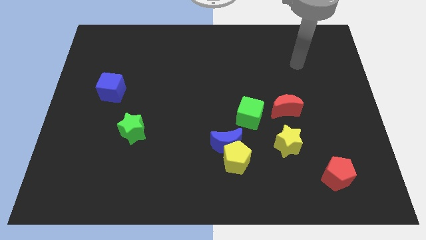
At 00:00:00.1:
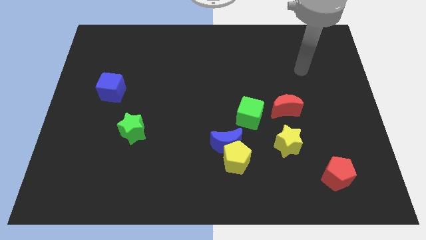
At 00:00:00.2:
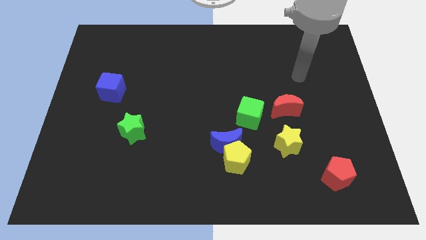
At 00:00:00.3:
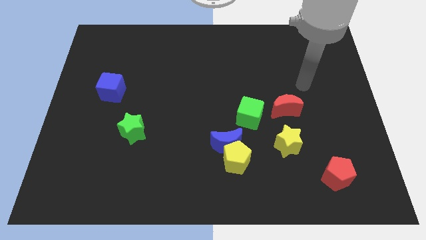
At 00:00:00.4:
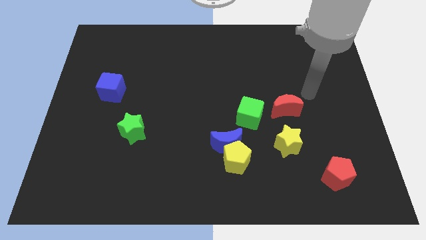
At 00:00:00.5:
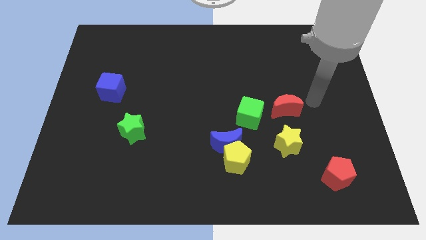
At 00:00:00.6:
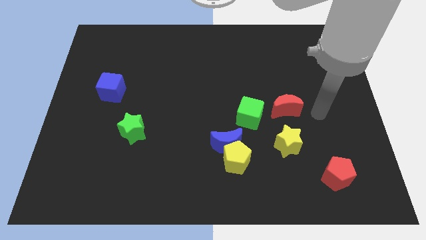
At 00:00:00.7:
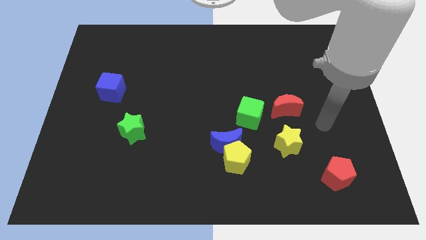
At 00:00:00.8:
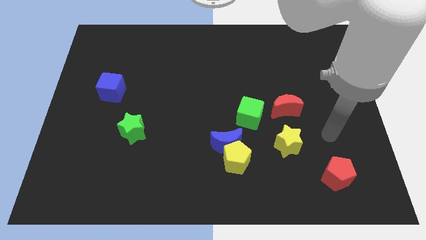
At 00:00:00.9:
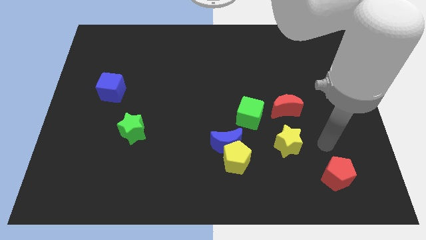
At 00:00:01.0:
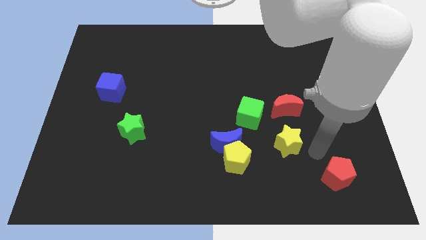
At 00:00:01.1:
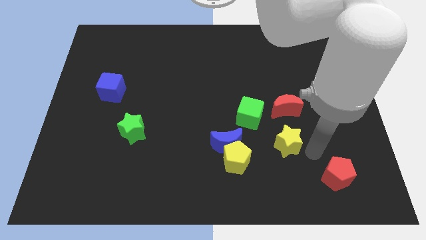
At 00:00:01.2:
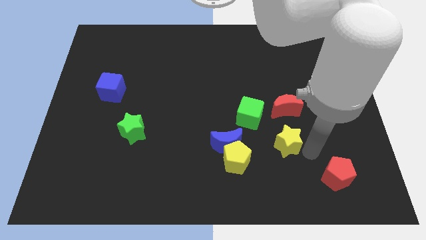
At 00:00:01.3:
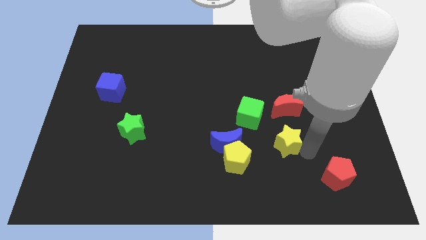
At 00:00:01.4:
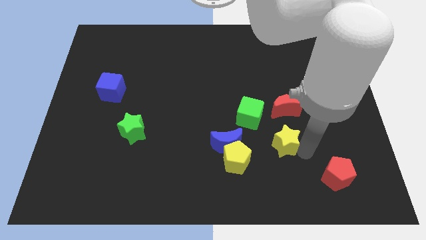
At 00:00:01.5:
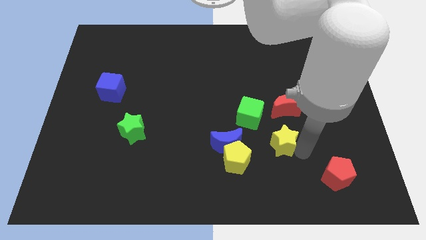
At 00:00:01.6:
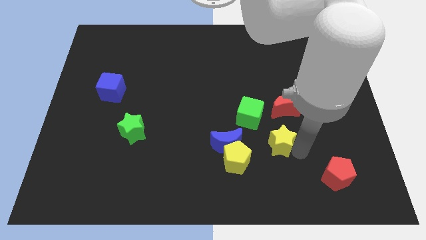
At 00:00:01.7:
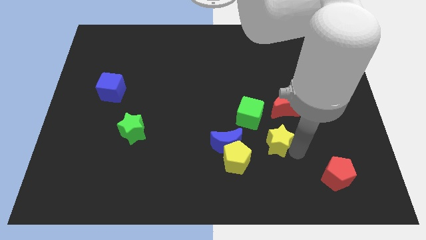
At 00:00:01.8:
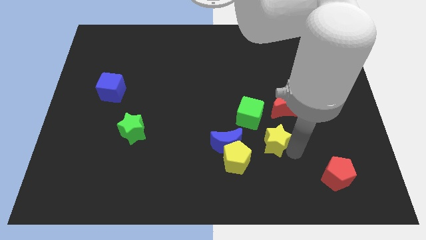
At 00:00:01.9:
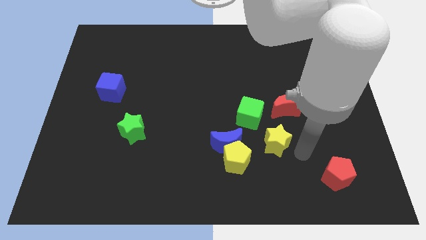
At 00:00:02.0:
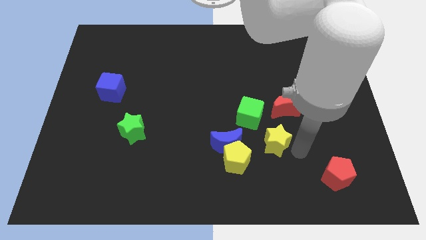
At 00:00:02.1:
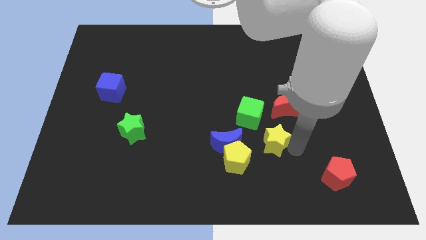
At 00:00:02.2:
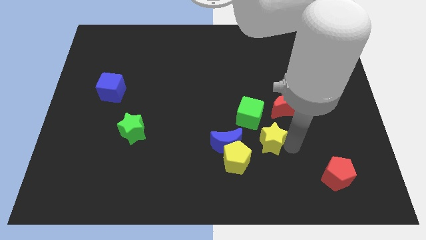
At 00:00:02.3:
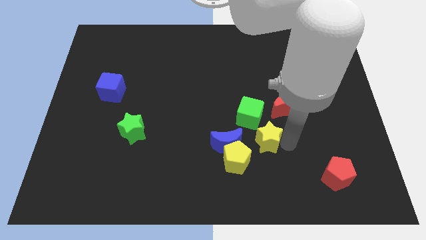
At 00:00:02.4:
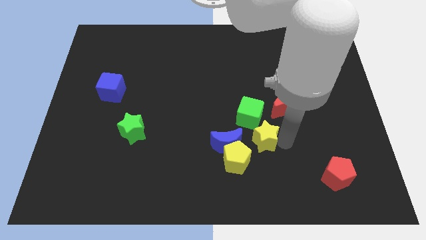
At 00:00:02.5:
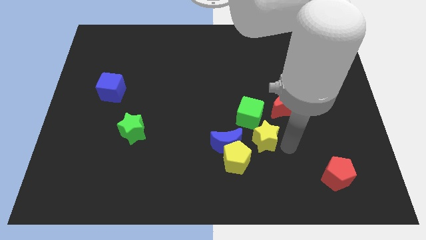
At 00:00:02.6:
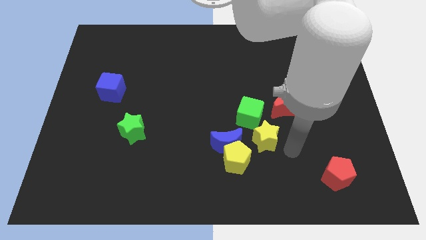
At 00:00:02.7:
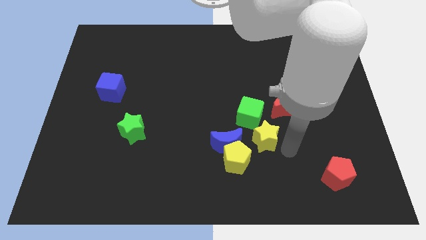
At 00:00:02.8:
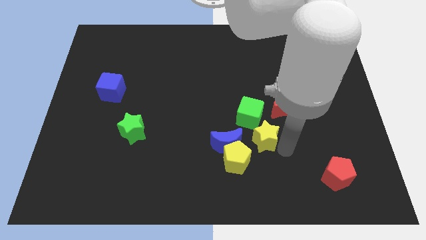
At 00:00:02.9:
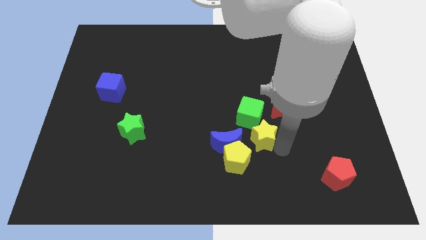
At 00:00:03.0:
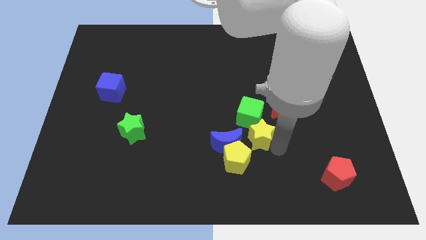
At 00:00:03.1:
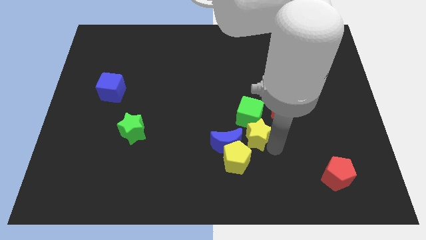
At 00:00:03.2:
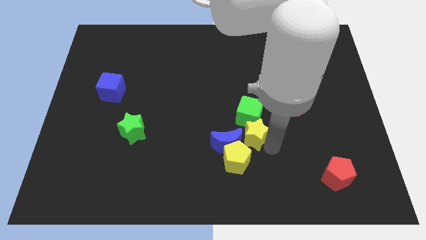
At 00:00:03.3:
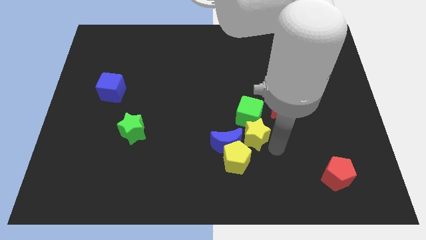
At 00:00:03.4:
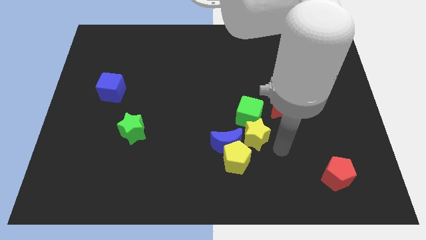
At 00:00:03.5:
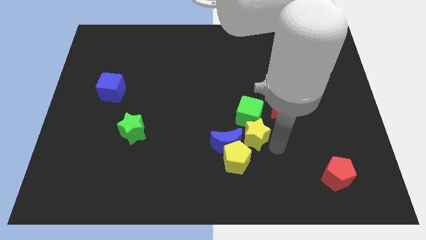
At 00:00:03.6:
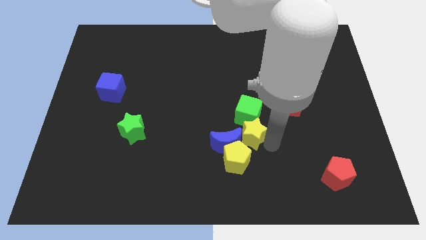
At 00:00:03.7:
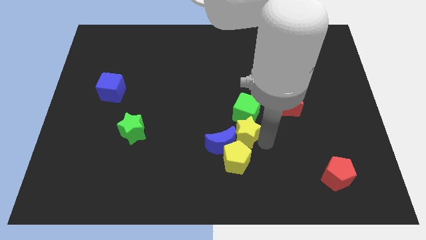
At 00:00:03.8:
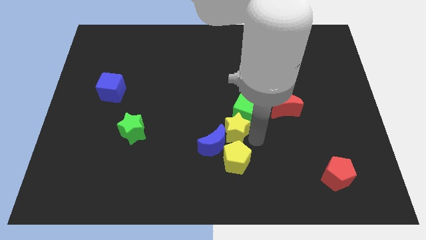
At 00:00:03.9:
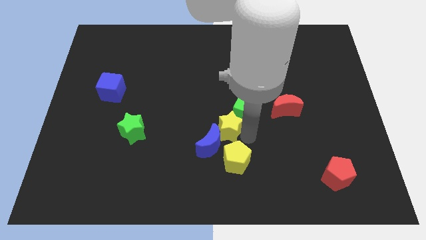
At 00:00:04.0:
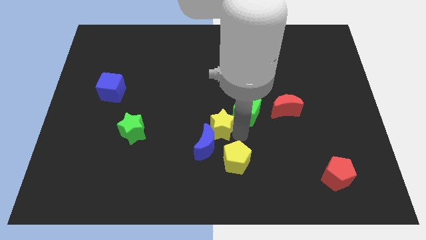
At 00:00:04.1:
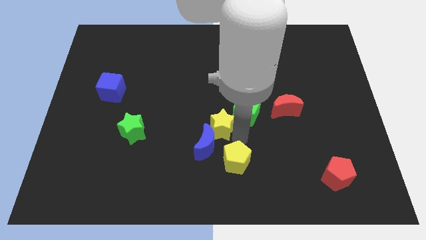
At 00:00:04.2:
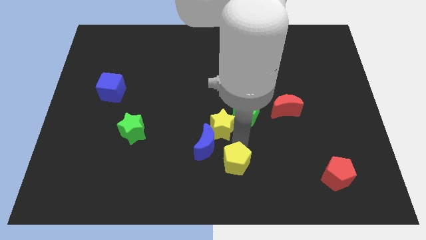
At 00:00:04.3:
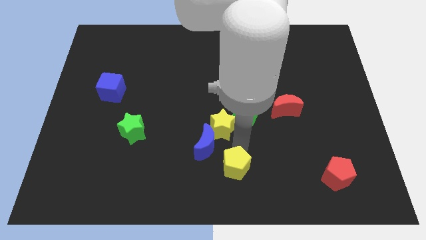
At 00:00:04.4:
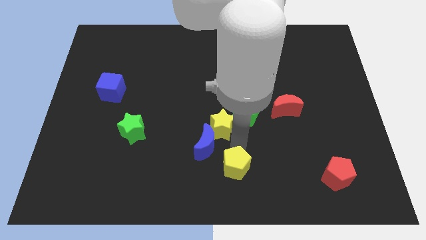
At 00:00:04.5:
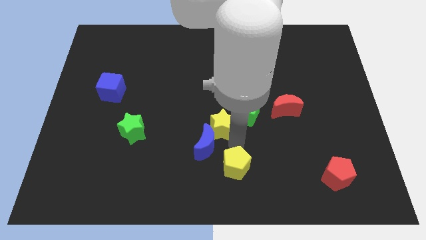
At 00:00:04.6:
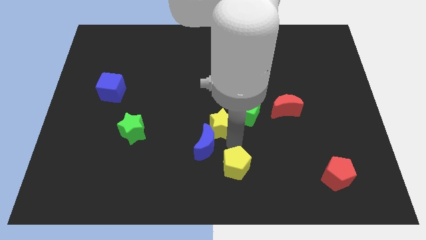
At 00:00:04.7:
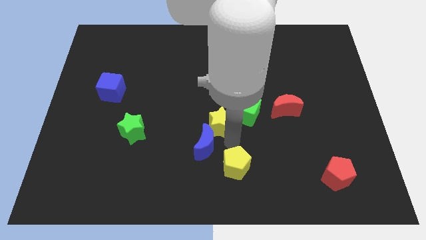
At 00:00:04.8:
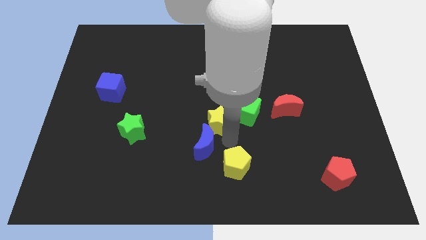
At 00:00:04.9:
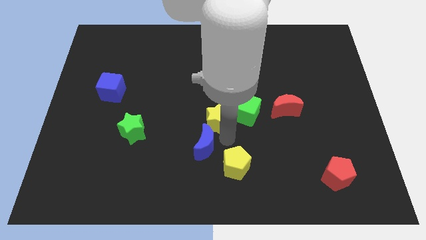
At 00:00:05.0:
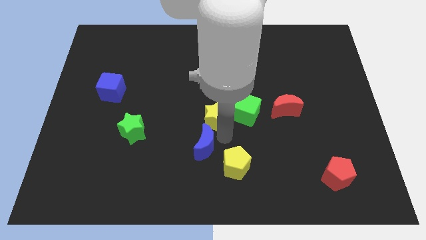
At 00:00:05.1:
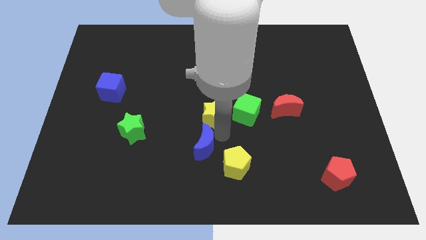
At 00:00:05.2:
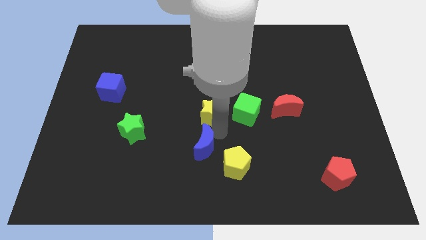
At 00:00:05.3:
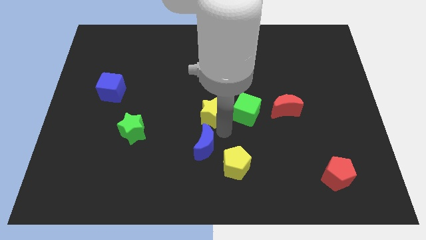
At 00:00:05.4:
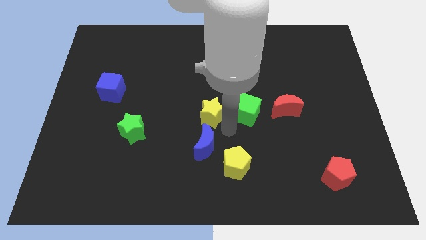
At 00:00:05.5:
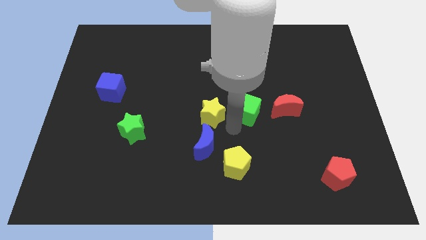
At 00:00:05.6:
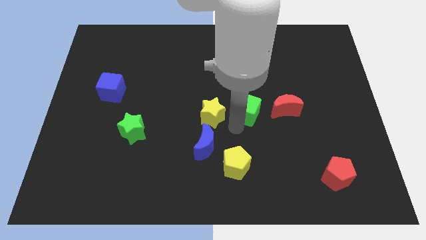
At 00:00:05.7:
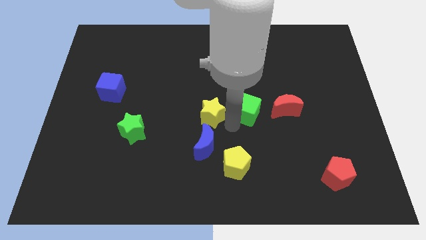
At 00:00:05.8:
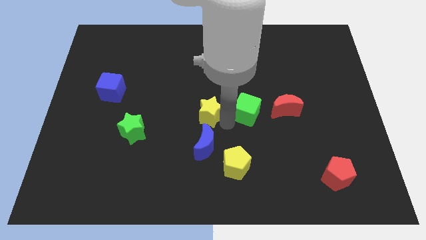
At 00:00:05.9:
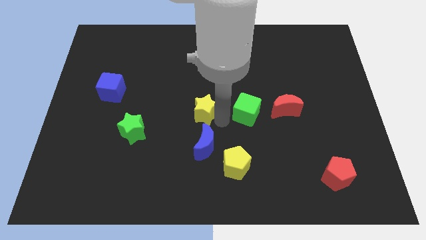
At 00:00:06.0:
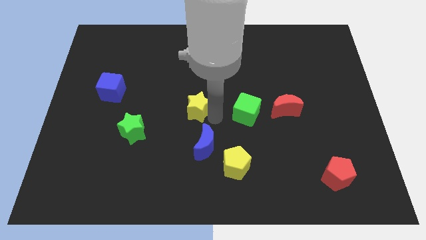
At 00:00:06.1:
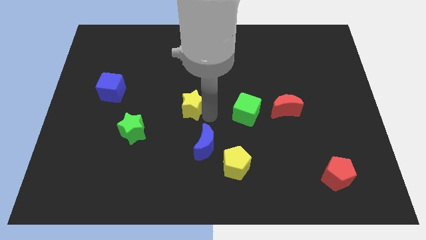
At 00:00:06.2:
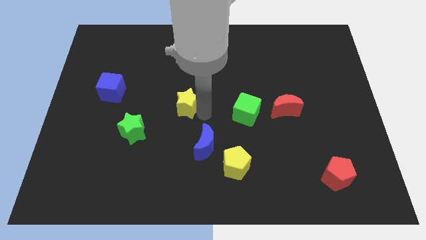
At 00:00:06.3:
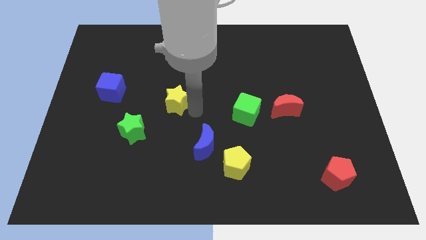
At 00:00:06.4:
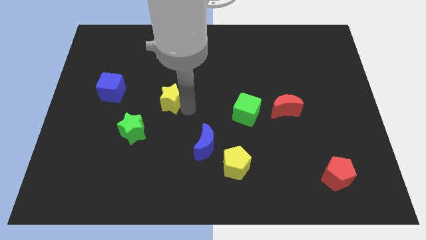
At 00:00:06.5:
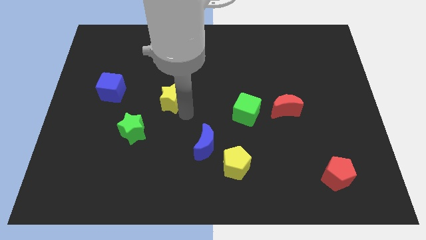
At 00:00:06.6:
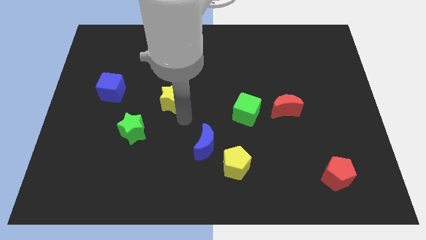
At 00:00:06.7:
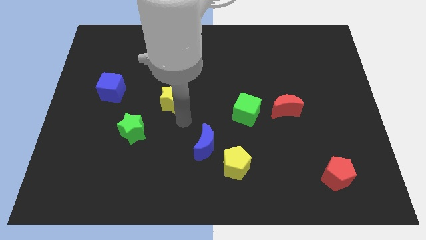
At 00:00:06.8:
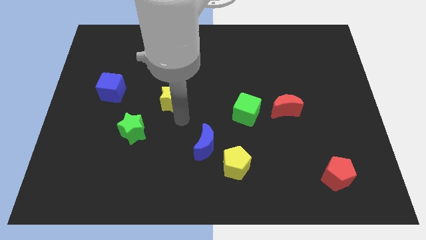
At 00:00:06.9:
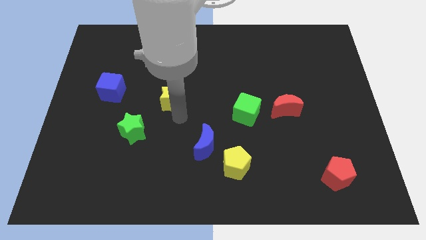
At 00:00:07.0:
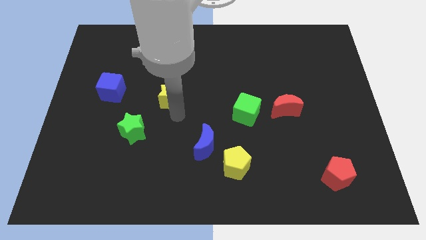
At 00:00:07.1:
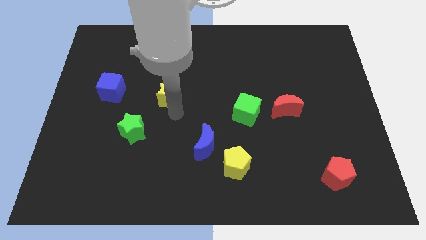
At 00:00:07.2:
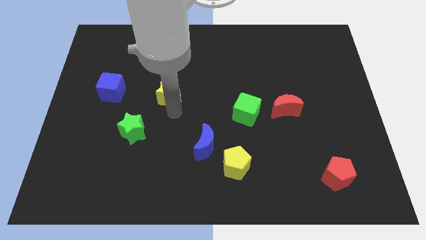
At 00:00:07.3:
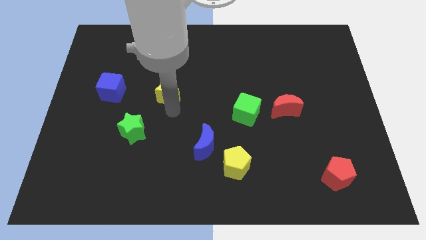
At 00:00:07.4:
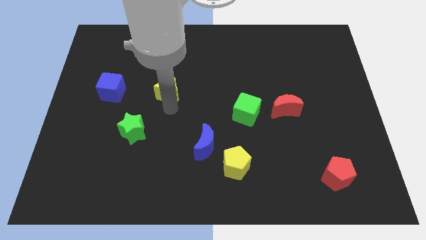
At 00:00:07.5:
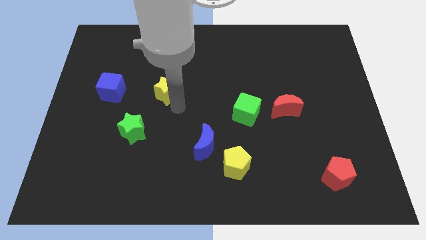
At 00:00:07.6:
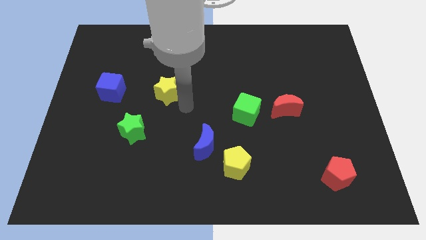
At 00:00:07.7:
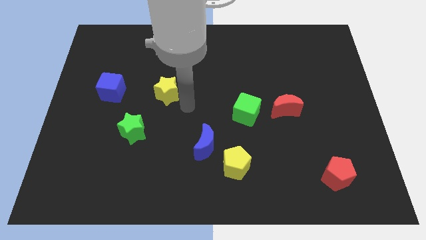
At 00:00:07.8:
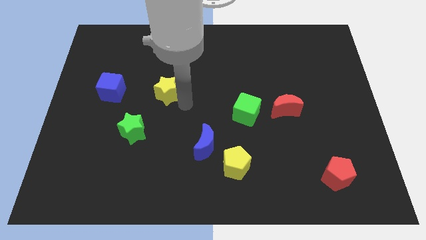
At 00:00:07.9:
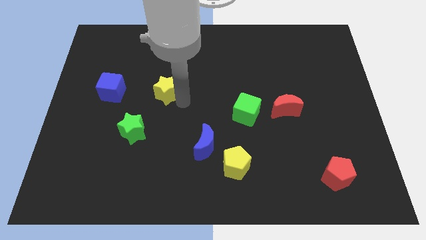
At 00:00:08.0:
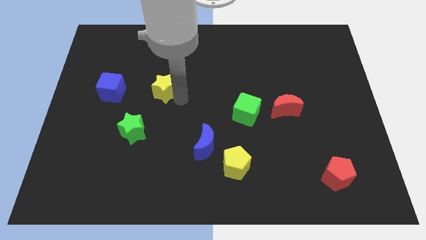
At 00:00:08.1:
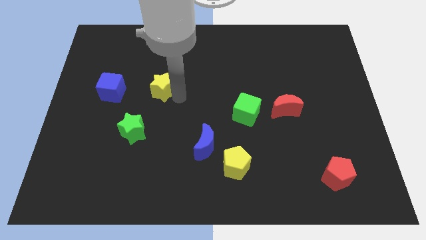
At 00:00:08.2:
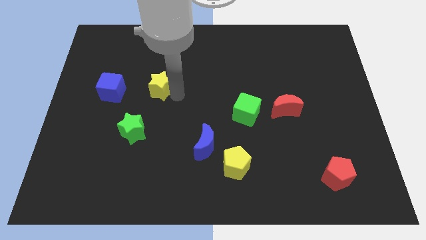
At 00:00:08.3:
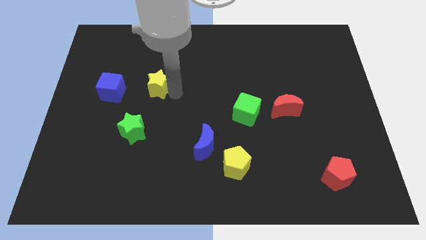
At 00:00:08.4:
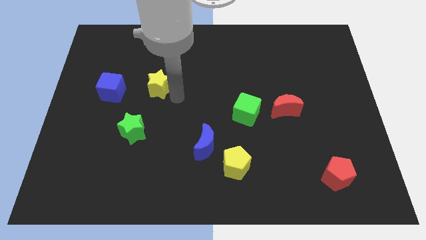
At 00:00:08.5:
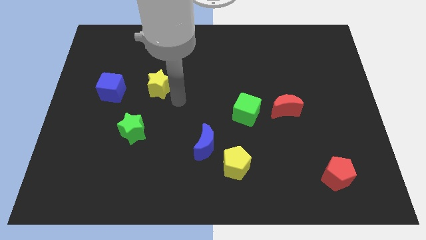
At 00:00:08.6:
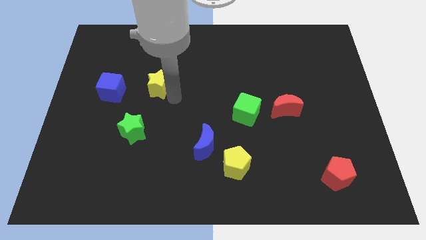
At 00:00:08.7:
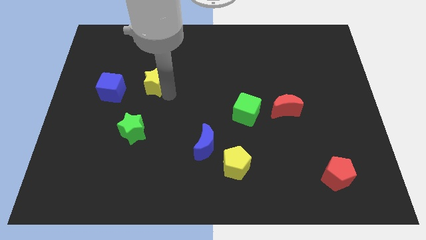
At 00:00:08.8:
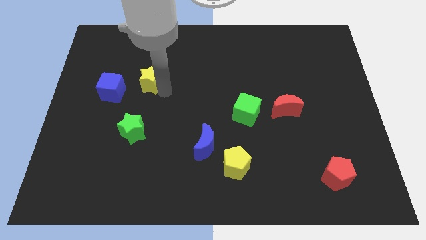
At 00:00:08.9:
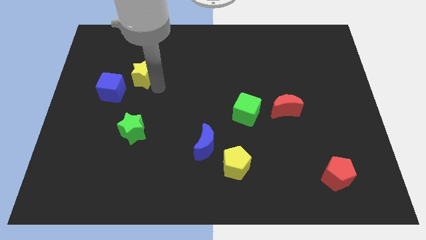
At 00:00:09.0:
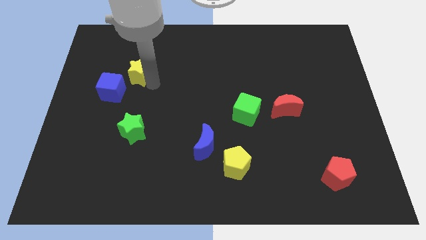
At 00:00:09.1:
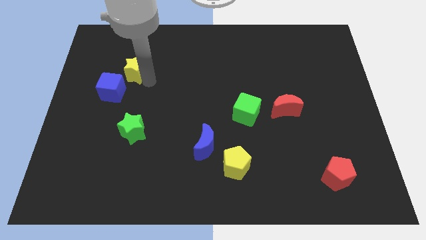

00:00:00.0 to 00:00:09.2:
move the yellow star above the blue cube
